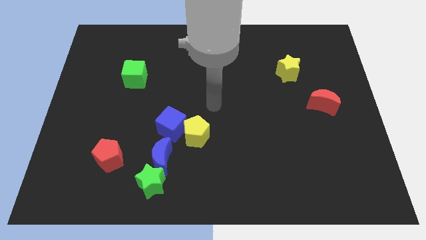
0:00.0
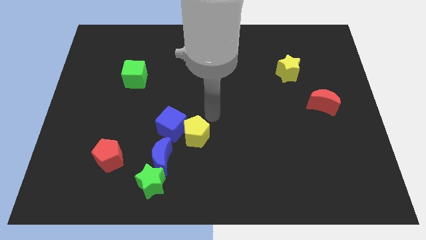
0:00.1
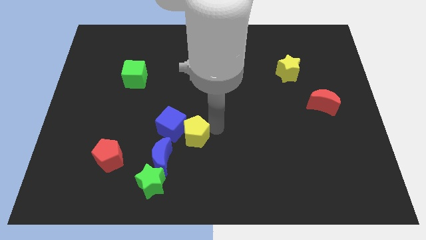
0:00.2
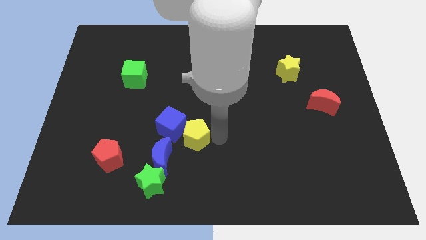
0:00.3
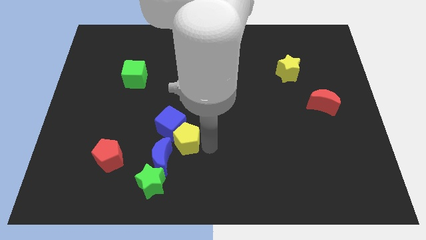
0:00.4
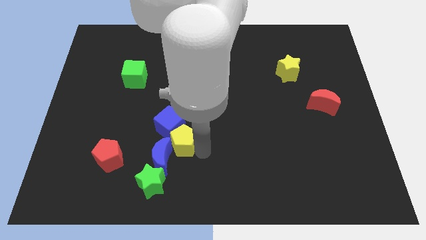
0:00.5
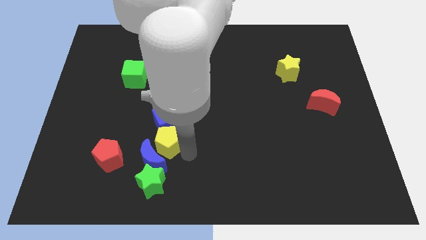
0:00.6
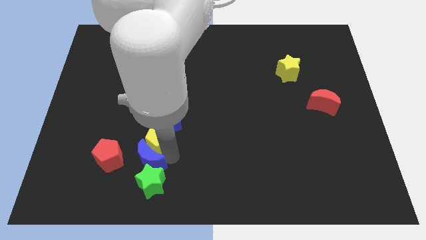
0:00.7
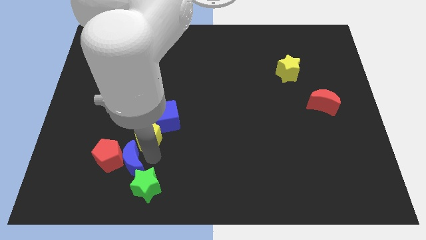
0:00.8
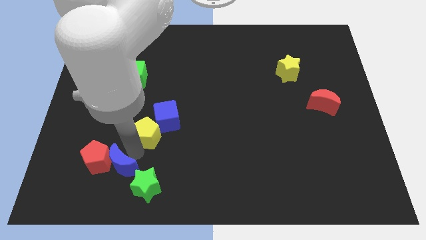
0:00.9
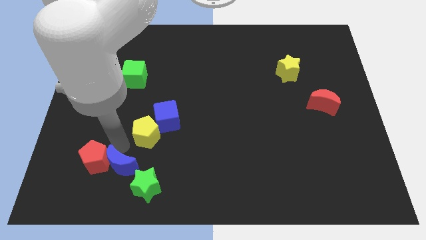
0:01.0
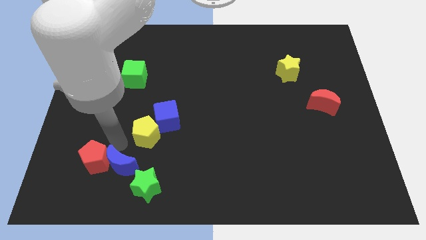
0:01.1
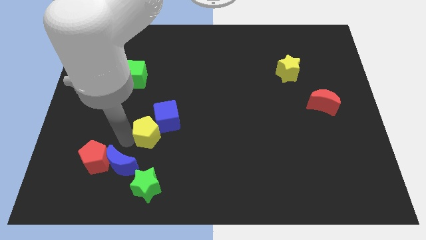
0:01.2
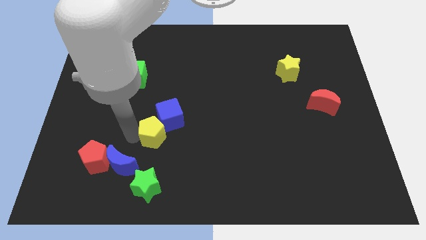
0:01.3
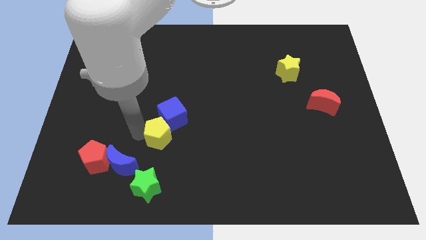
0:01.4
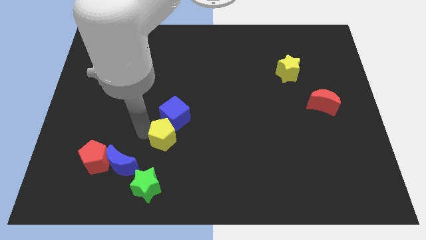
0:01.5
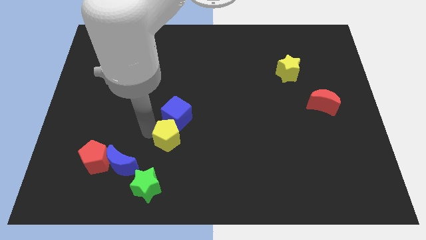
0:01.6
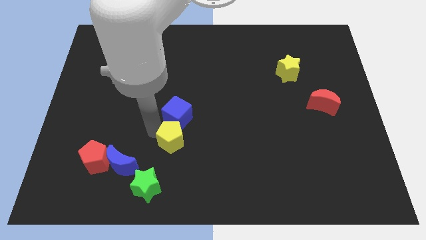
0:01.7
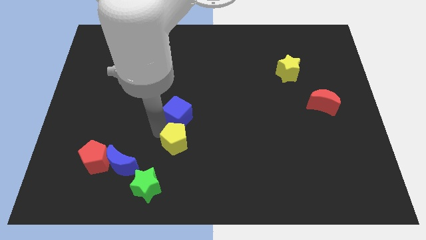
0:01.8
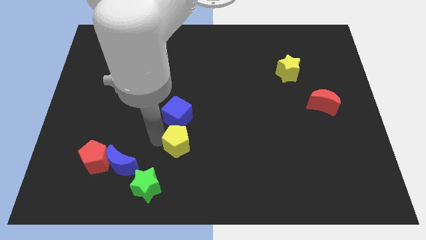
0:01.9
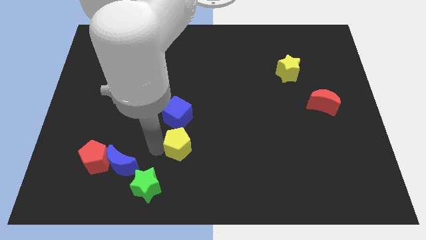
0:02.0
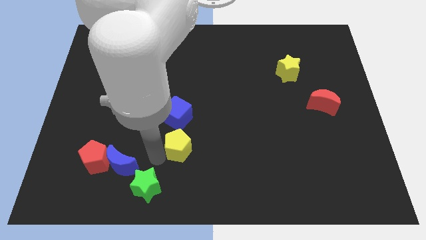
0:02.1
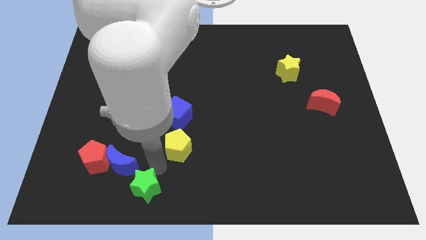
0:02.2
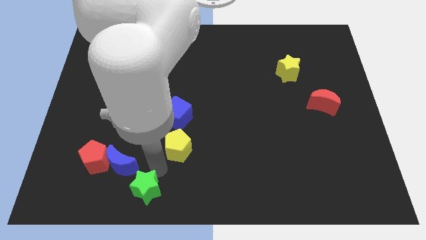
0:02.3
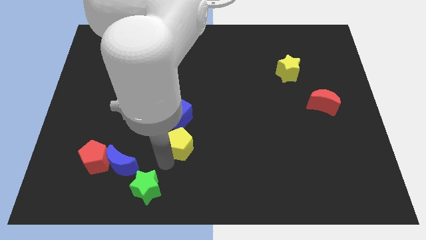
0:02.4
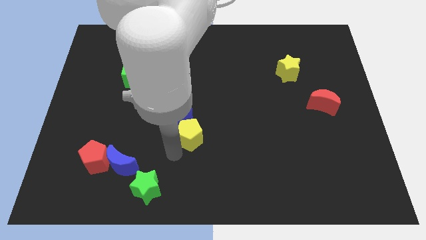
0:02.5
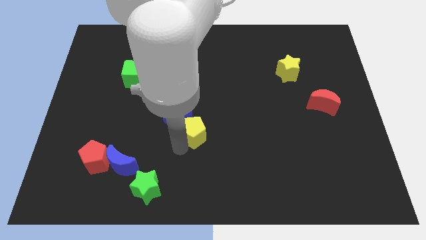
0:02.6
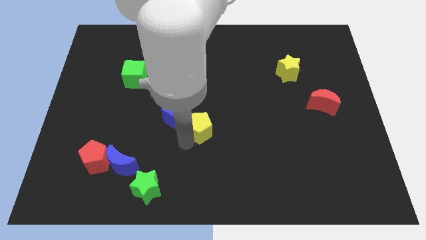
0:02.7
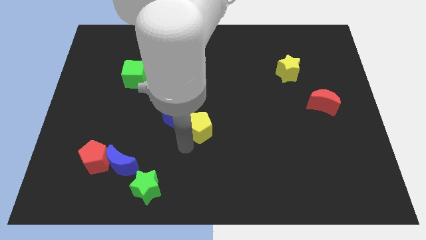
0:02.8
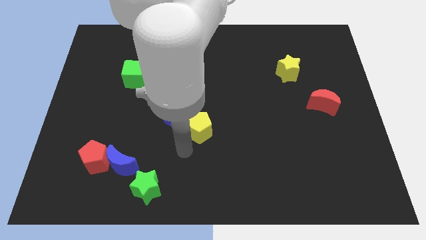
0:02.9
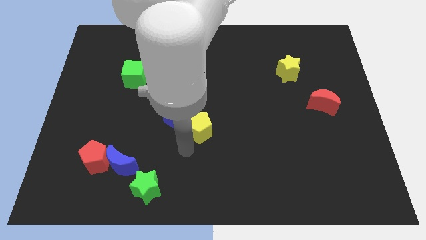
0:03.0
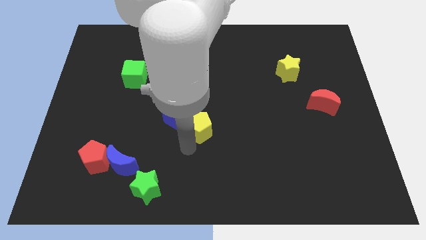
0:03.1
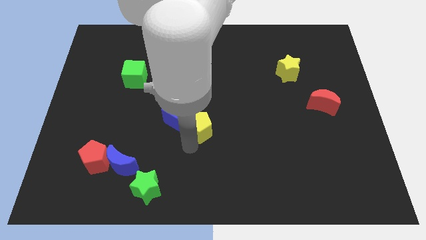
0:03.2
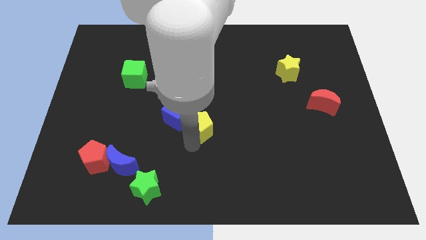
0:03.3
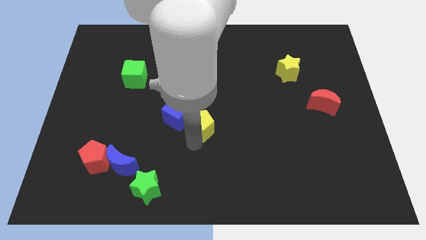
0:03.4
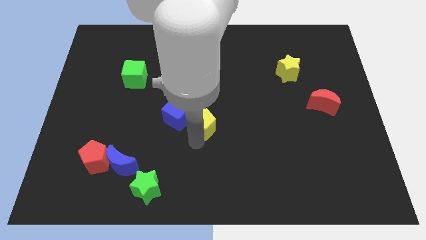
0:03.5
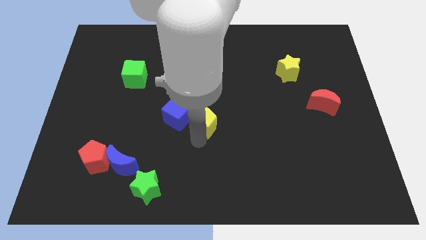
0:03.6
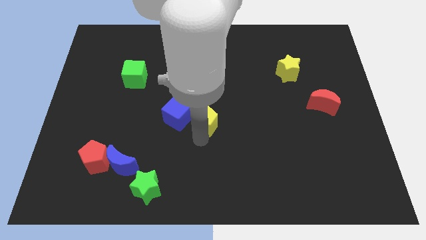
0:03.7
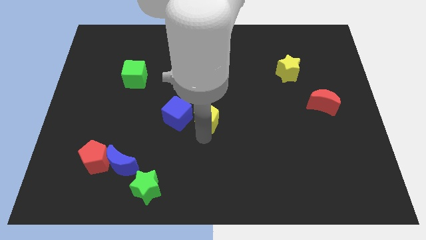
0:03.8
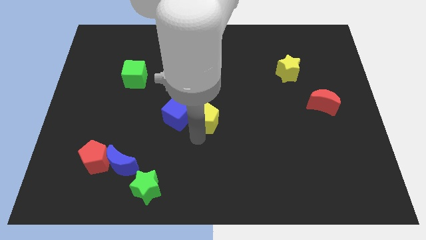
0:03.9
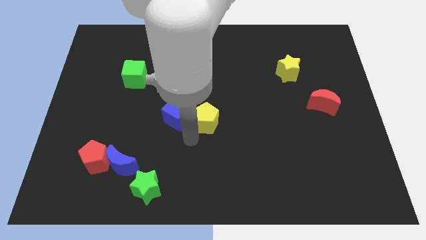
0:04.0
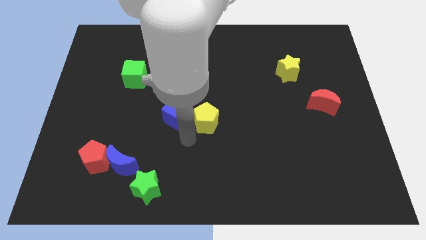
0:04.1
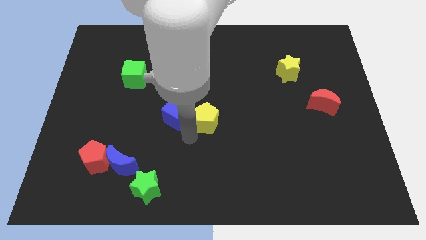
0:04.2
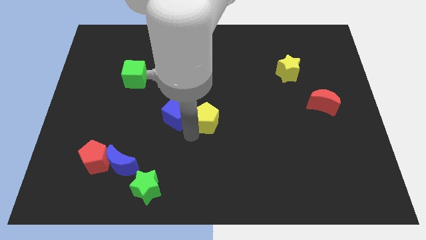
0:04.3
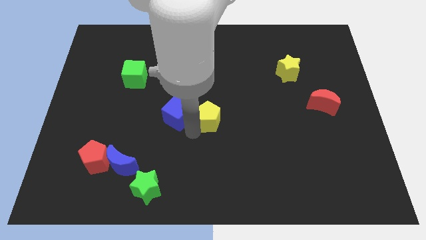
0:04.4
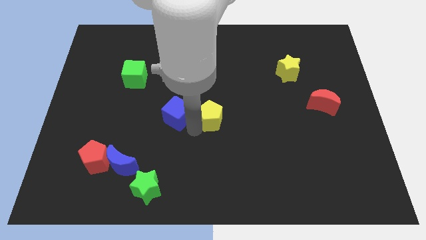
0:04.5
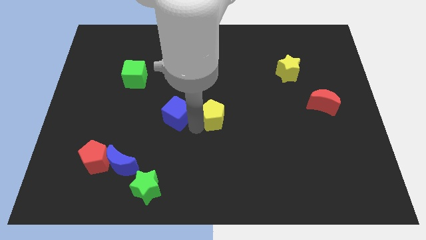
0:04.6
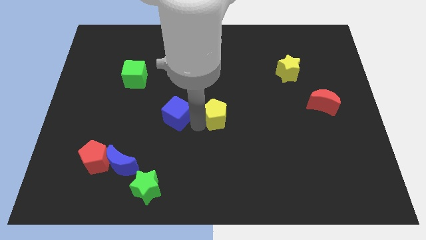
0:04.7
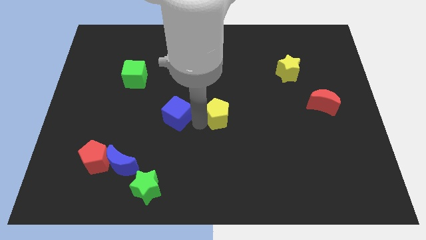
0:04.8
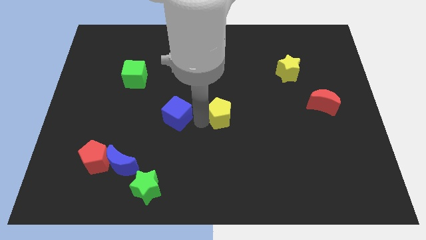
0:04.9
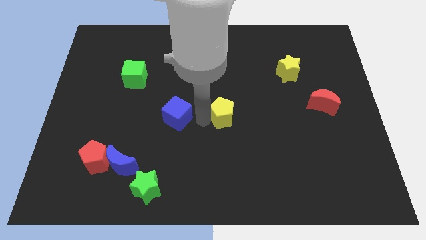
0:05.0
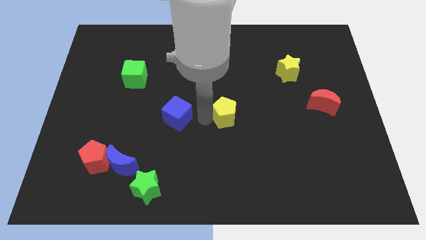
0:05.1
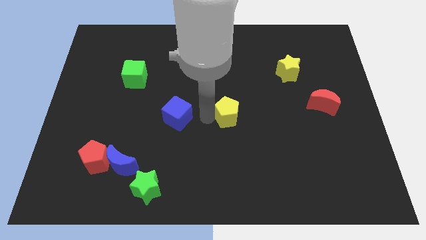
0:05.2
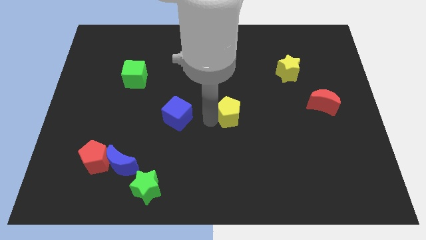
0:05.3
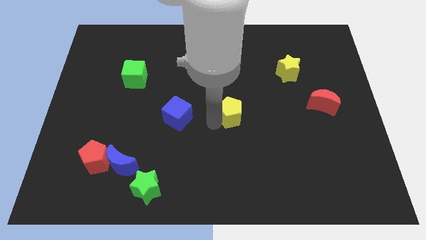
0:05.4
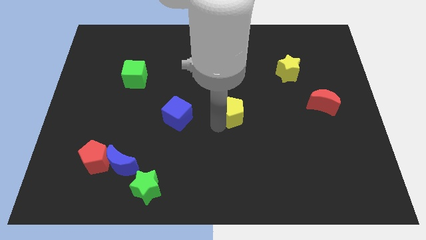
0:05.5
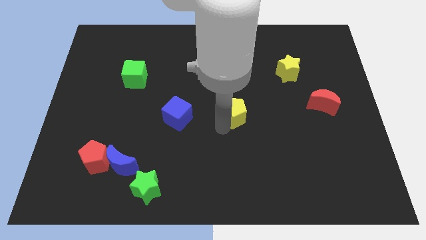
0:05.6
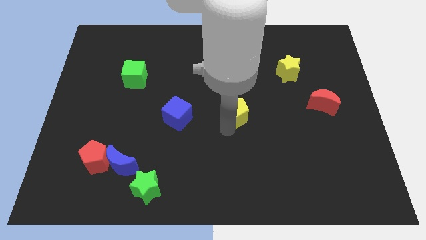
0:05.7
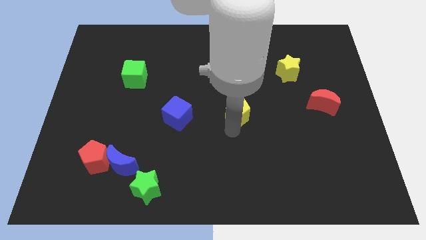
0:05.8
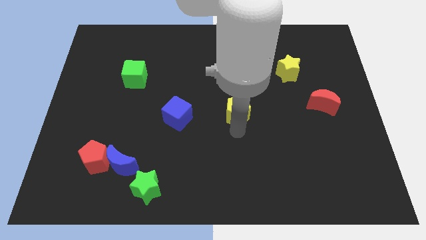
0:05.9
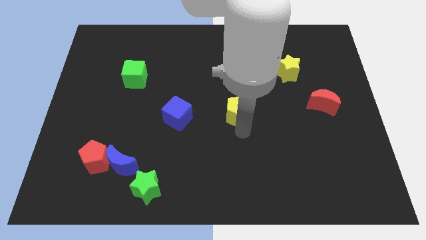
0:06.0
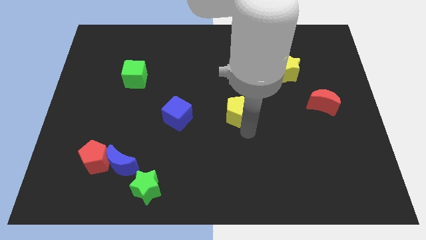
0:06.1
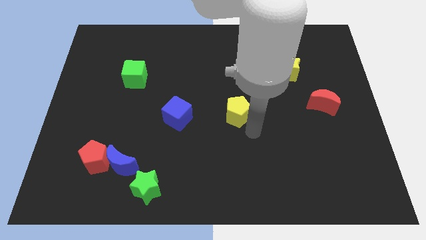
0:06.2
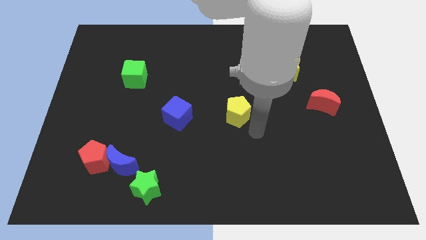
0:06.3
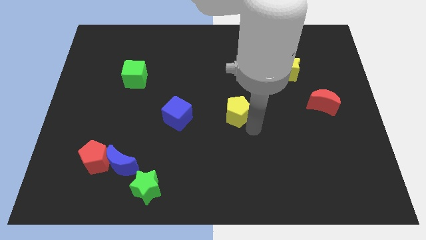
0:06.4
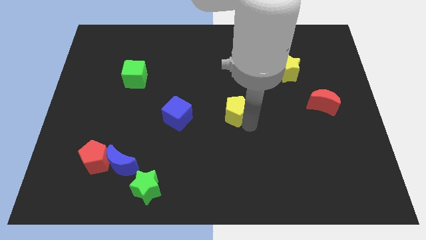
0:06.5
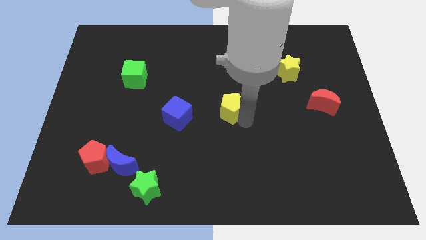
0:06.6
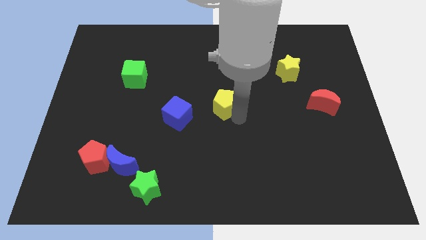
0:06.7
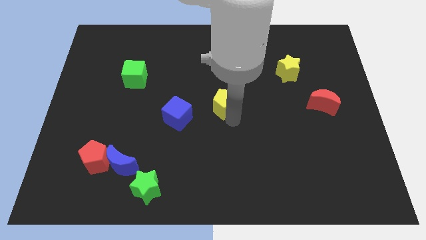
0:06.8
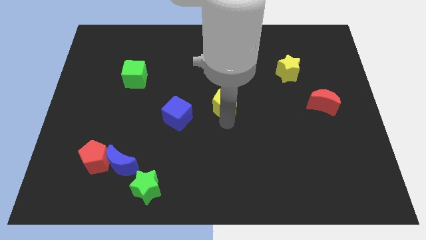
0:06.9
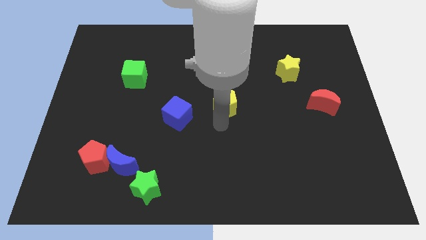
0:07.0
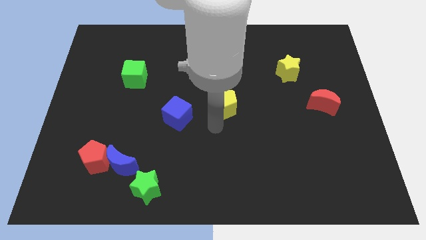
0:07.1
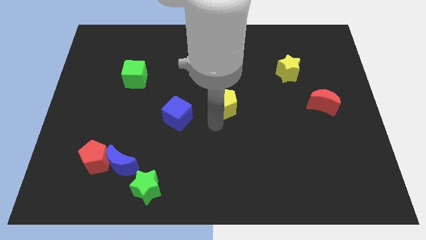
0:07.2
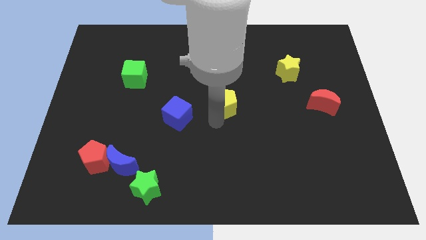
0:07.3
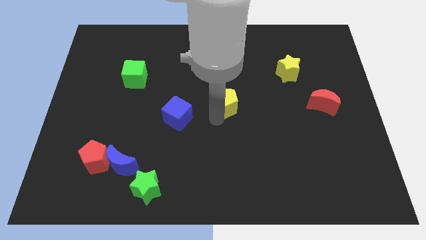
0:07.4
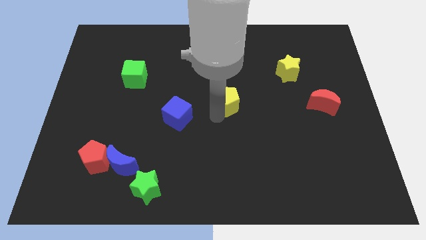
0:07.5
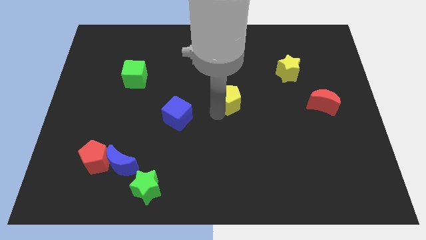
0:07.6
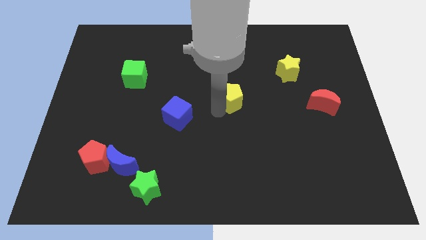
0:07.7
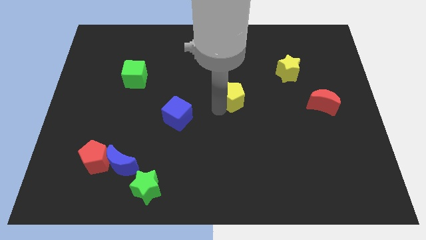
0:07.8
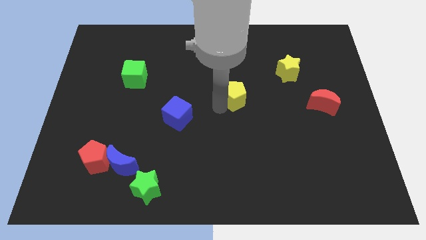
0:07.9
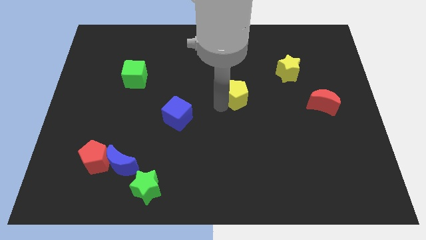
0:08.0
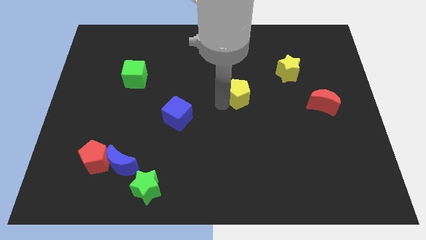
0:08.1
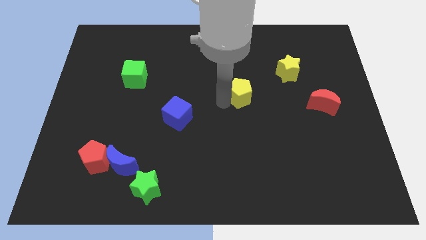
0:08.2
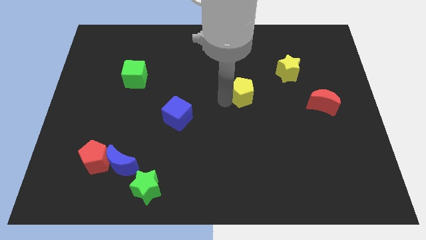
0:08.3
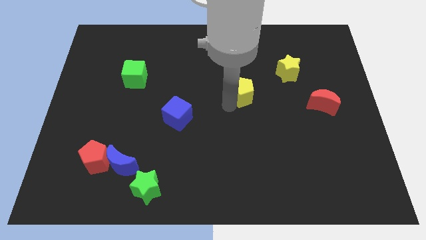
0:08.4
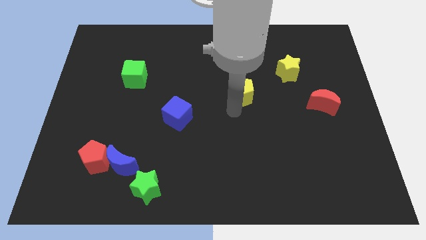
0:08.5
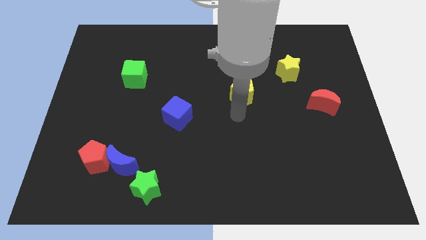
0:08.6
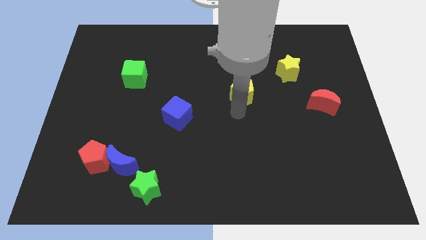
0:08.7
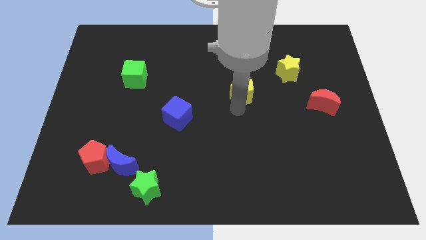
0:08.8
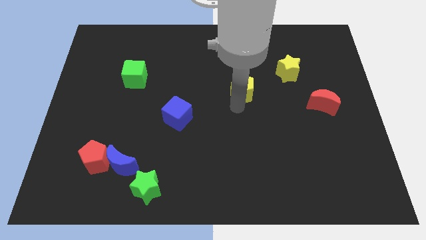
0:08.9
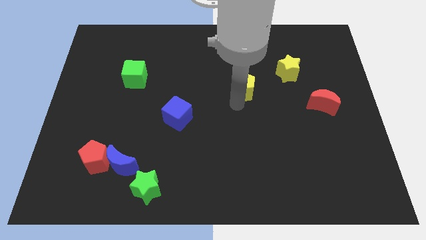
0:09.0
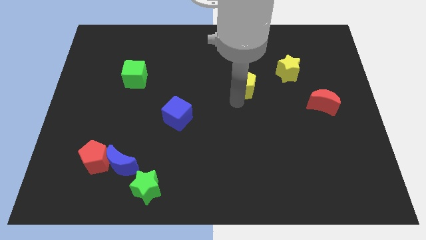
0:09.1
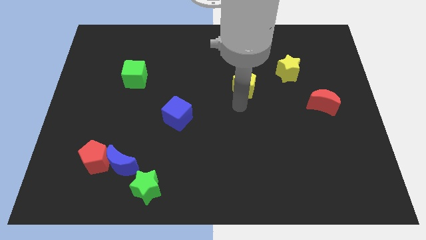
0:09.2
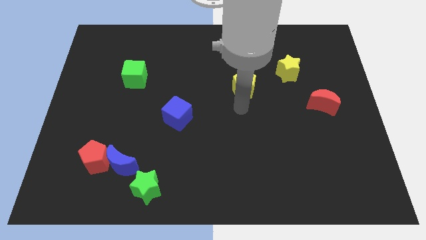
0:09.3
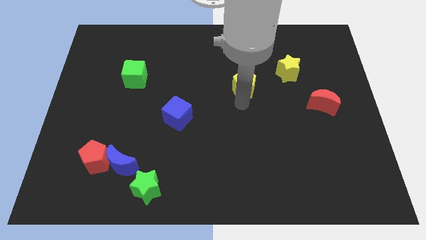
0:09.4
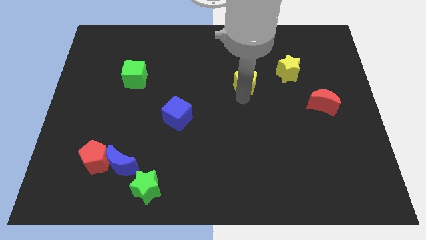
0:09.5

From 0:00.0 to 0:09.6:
push the yellow pentagon left of the yellow star
